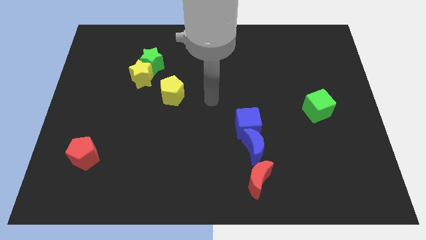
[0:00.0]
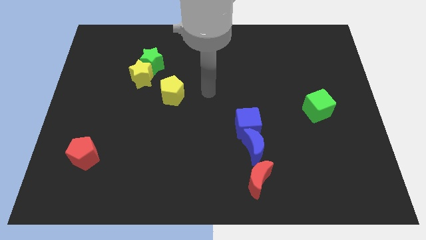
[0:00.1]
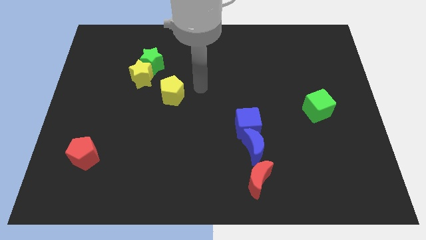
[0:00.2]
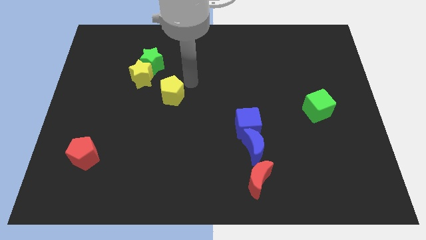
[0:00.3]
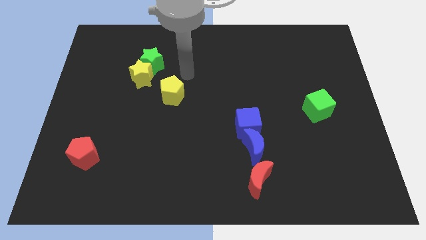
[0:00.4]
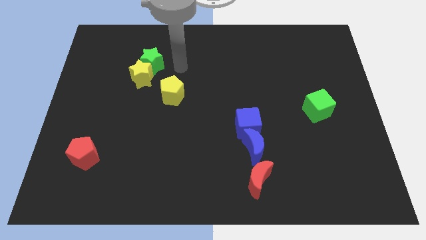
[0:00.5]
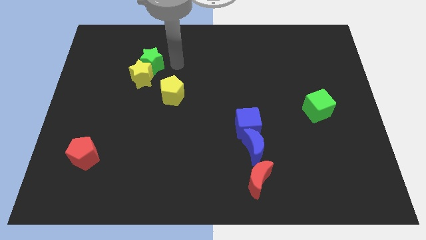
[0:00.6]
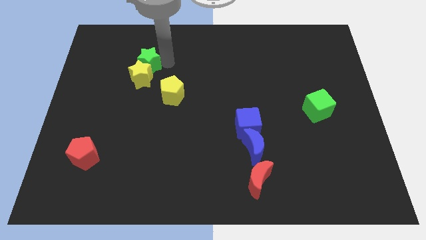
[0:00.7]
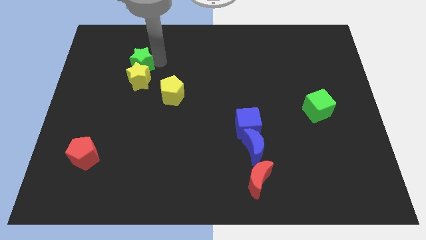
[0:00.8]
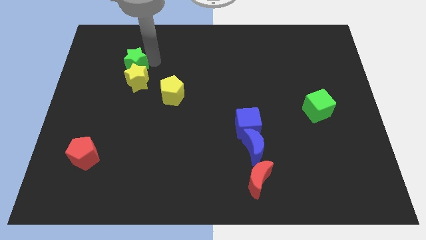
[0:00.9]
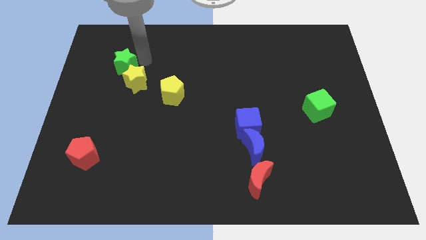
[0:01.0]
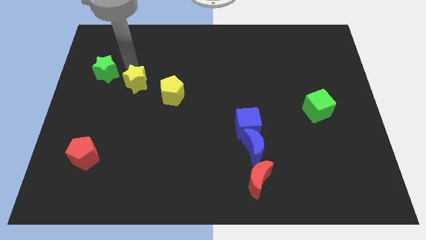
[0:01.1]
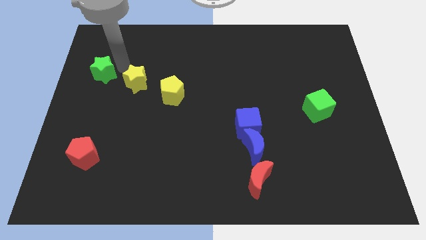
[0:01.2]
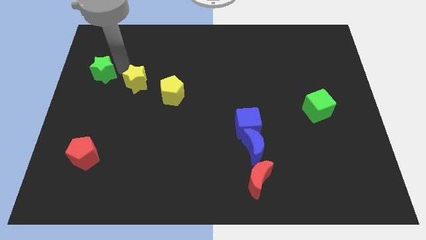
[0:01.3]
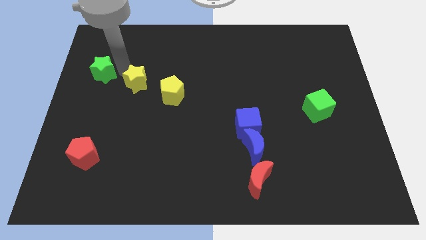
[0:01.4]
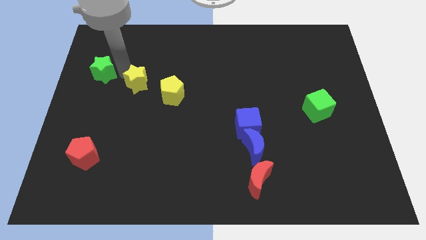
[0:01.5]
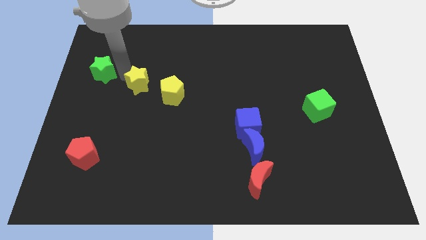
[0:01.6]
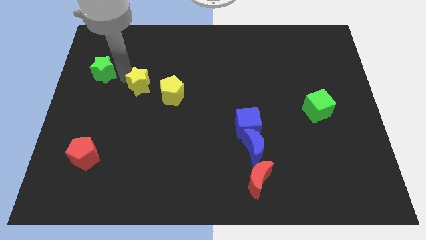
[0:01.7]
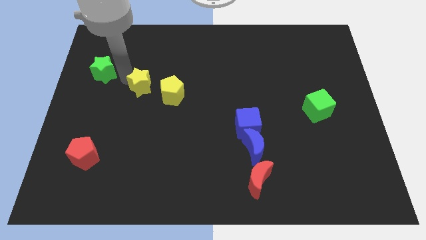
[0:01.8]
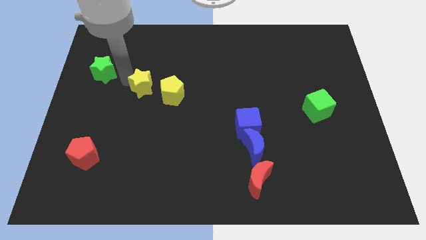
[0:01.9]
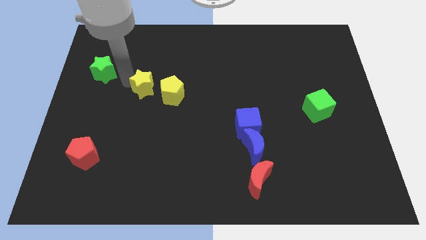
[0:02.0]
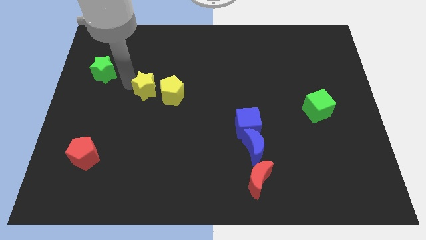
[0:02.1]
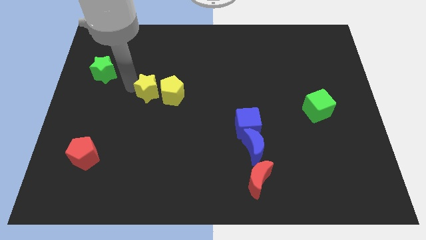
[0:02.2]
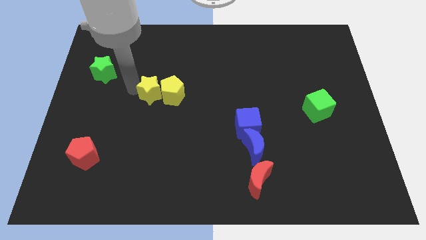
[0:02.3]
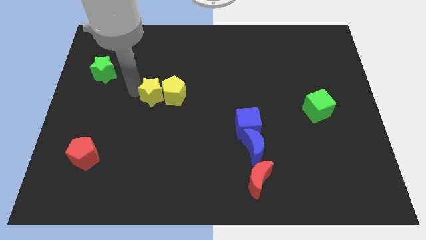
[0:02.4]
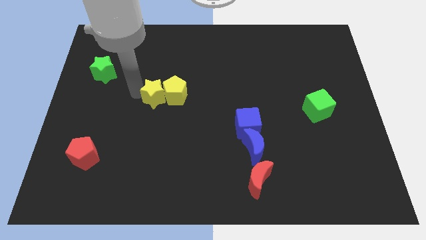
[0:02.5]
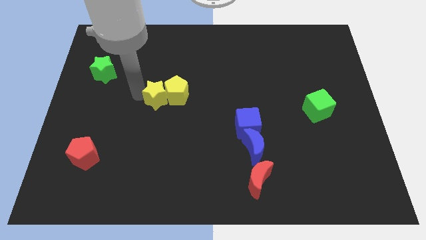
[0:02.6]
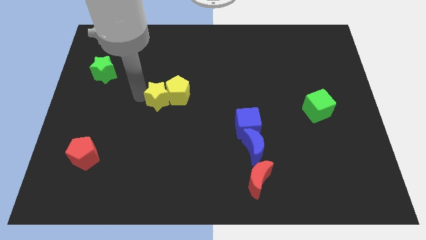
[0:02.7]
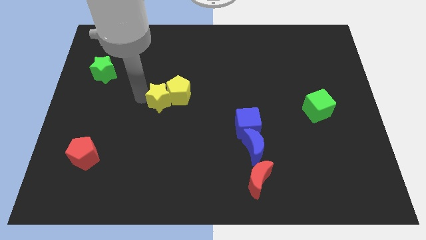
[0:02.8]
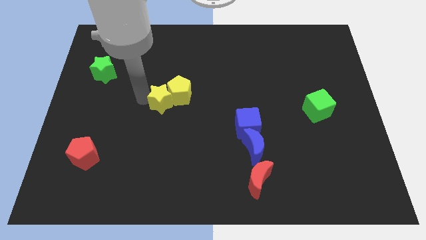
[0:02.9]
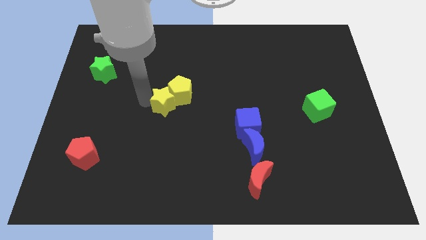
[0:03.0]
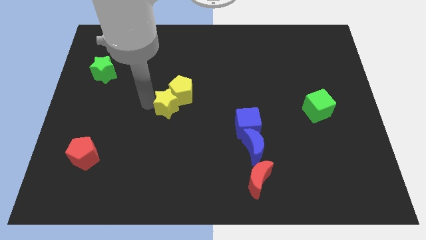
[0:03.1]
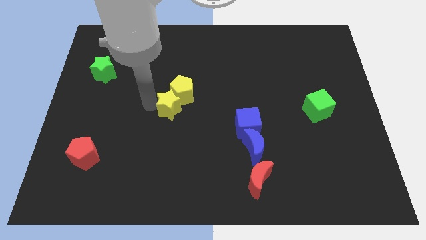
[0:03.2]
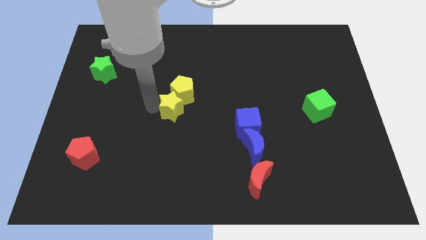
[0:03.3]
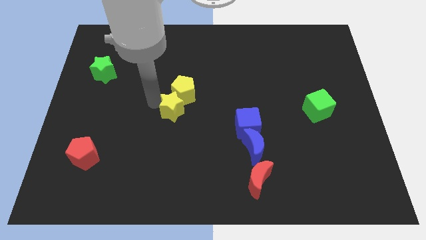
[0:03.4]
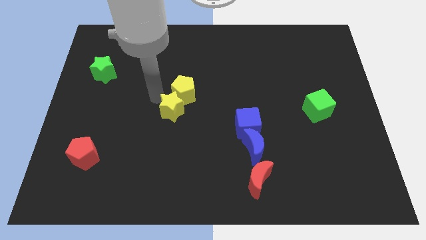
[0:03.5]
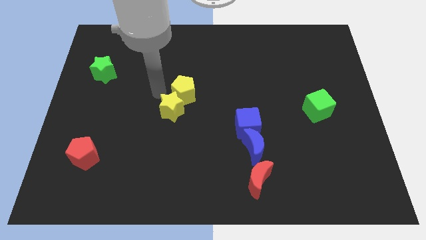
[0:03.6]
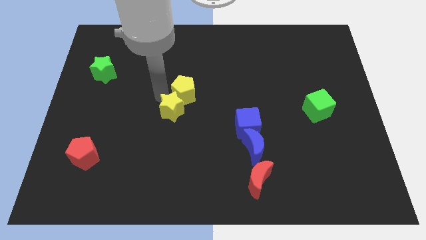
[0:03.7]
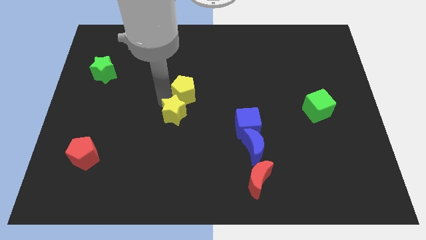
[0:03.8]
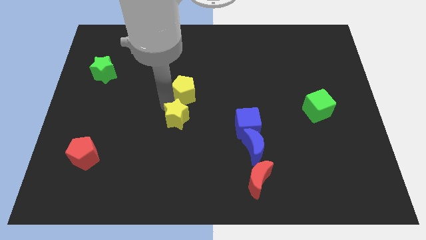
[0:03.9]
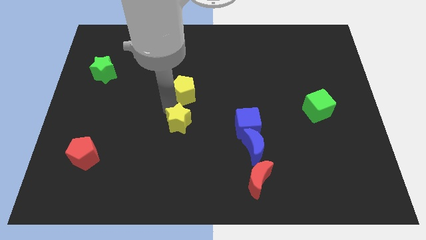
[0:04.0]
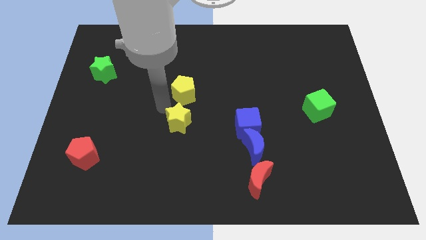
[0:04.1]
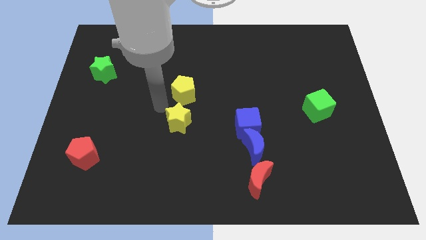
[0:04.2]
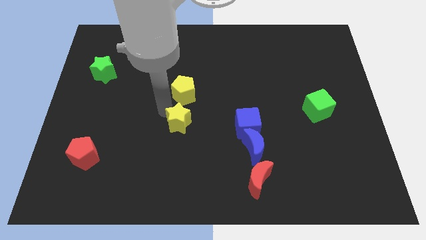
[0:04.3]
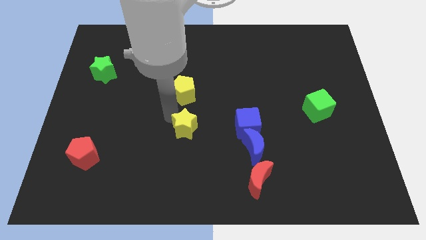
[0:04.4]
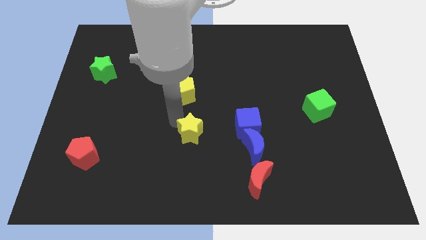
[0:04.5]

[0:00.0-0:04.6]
push the yellow star to the left side of the blue moon

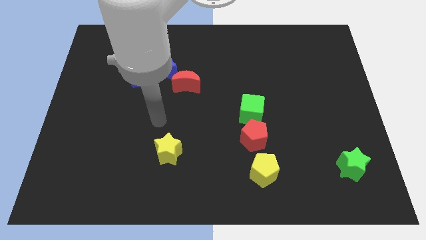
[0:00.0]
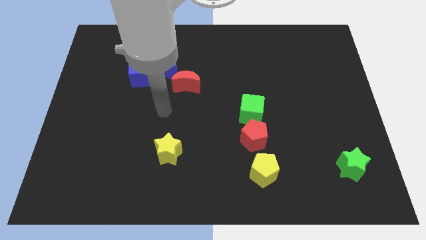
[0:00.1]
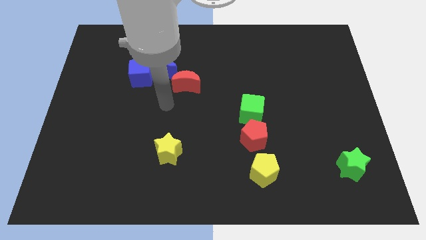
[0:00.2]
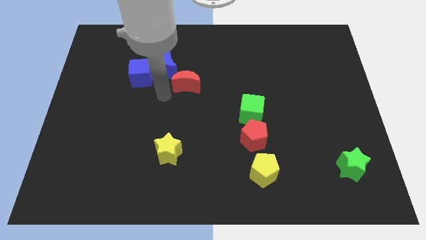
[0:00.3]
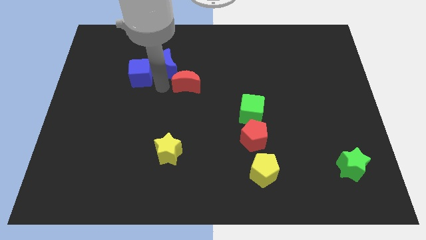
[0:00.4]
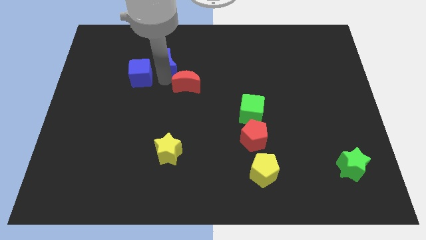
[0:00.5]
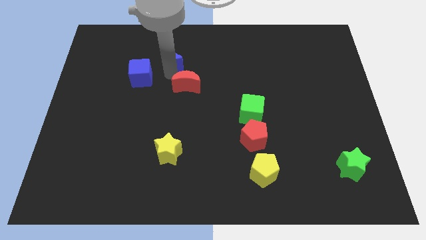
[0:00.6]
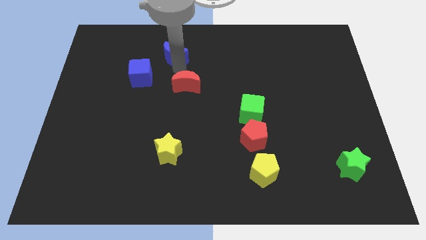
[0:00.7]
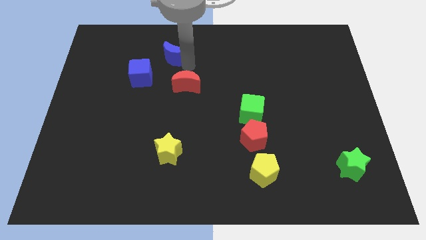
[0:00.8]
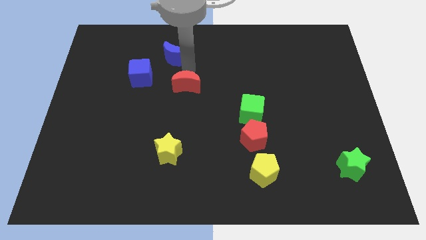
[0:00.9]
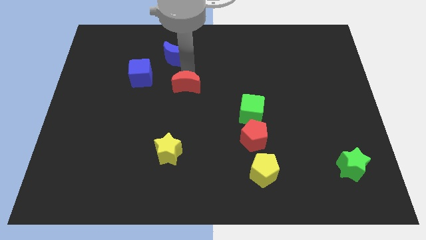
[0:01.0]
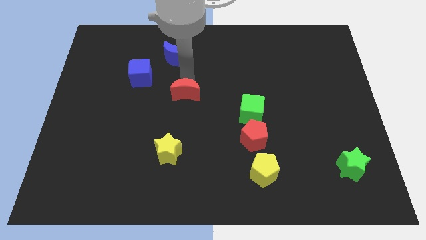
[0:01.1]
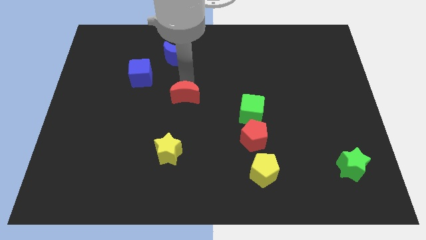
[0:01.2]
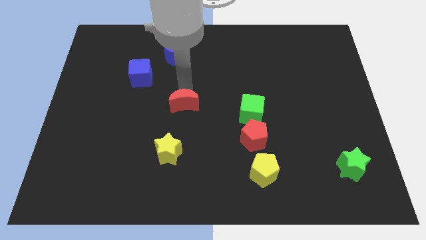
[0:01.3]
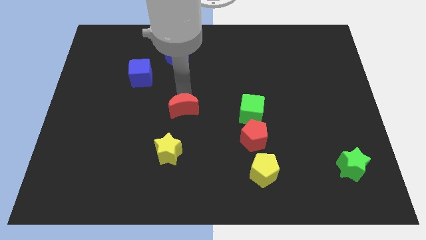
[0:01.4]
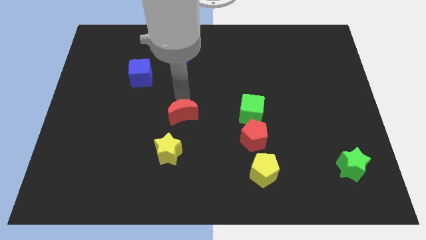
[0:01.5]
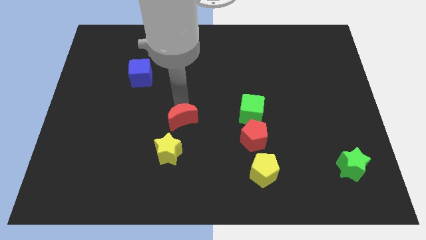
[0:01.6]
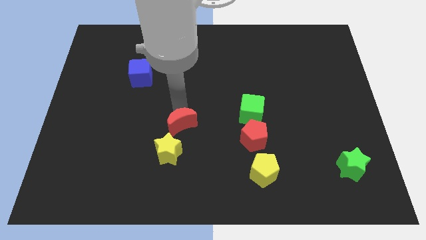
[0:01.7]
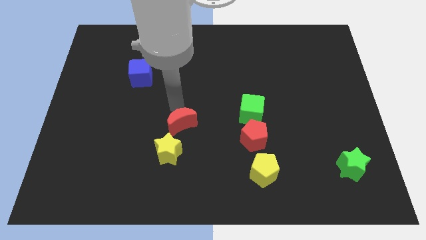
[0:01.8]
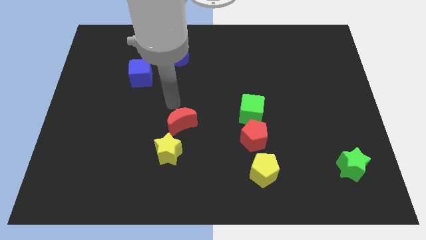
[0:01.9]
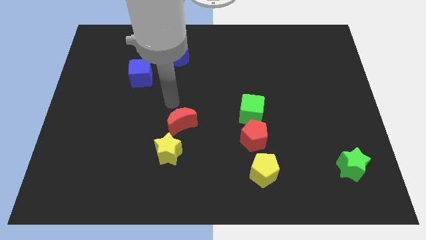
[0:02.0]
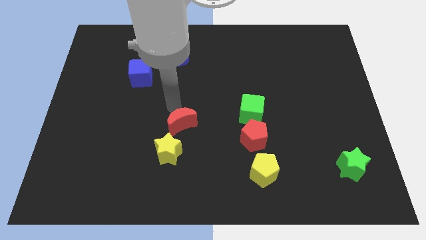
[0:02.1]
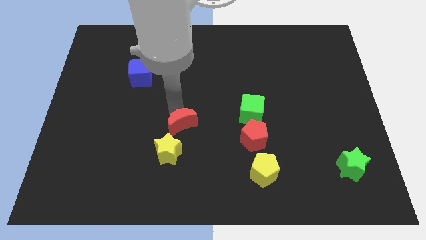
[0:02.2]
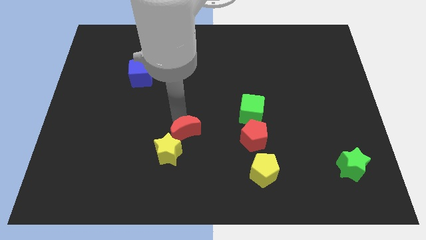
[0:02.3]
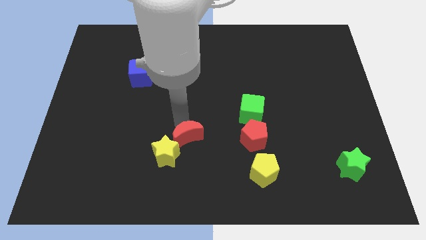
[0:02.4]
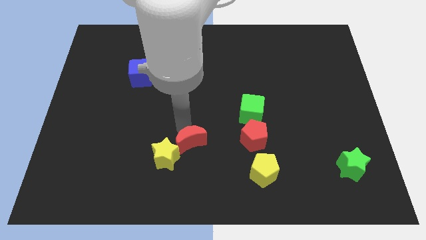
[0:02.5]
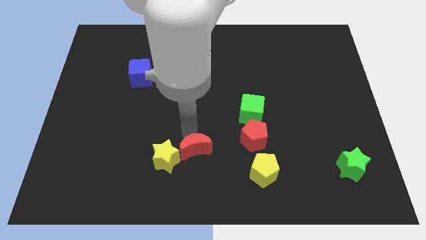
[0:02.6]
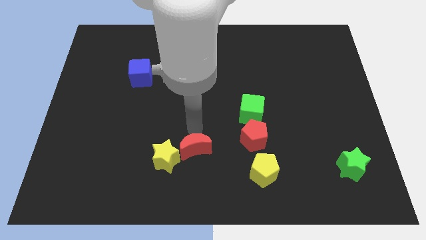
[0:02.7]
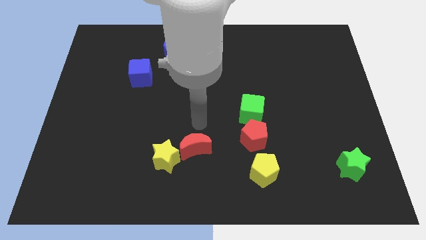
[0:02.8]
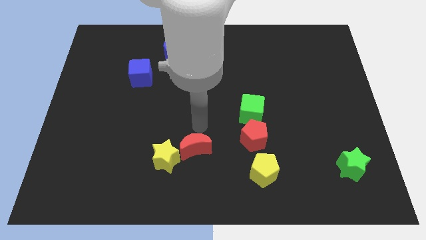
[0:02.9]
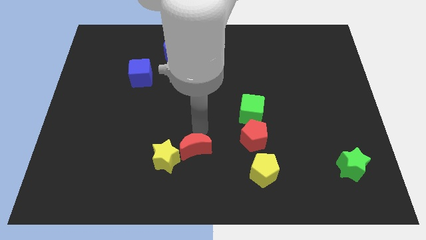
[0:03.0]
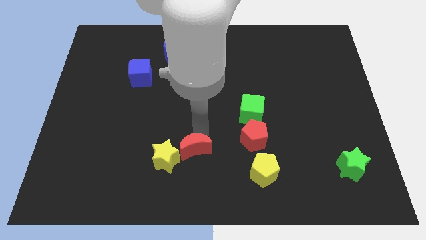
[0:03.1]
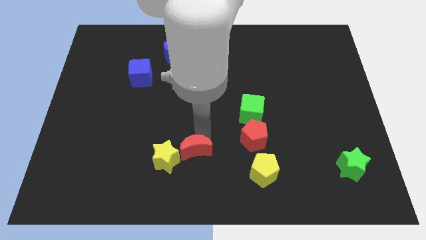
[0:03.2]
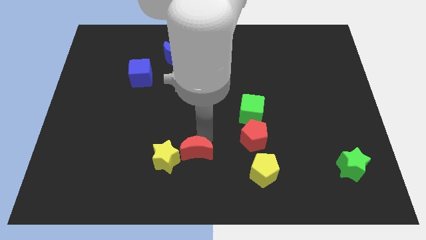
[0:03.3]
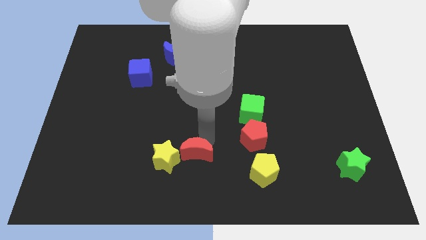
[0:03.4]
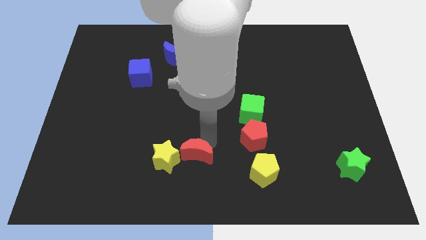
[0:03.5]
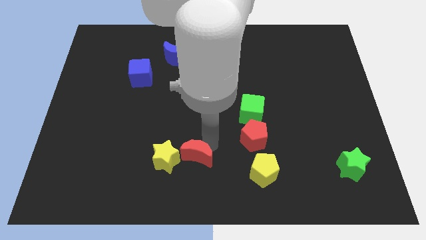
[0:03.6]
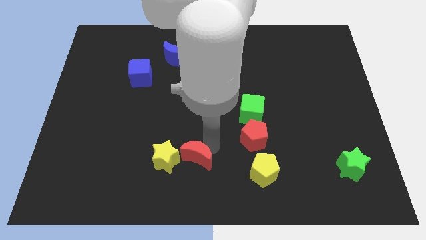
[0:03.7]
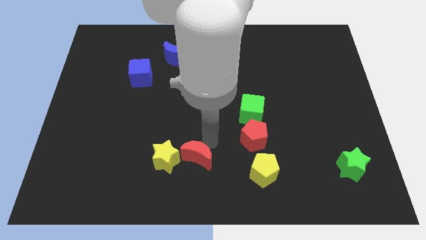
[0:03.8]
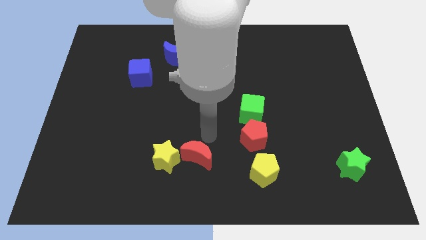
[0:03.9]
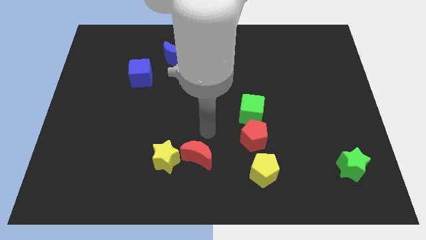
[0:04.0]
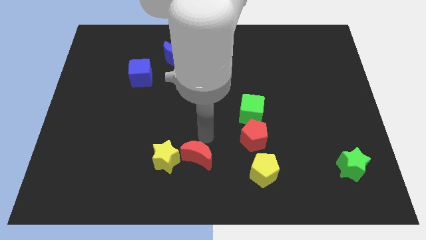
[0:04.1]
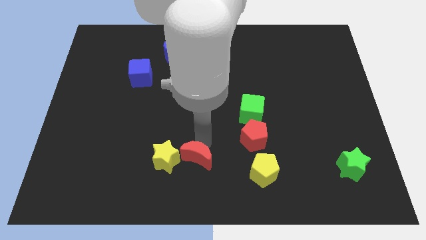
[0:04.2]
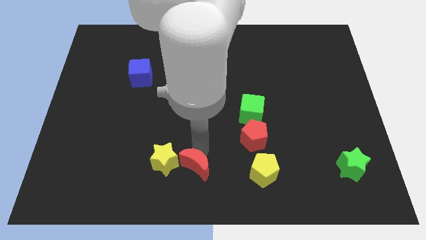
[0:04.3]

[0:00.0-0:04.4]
move the red moon to the bottom right side of the yellow star
